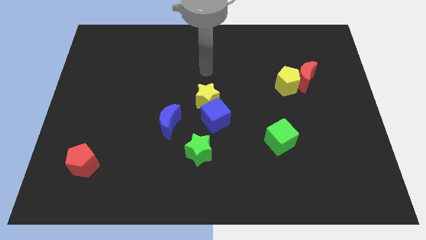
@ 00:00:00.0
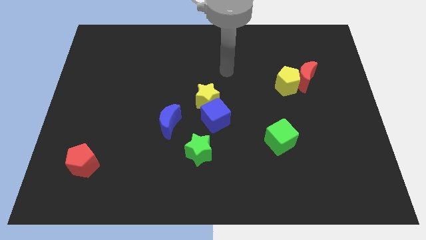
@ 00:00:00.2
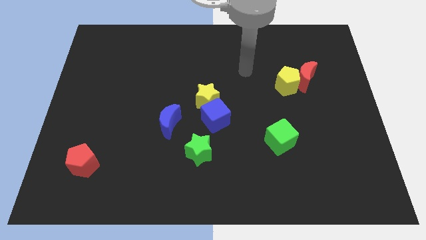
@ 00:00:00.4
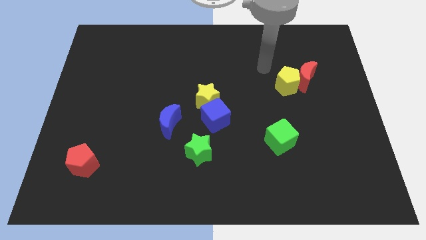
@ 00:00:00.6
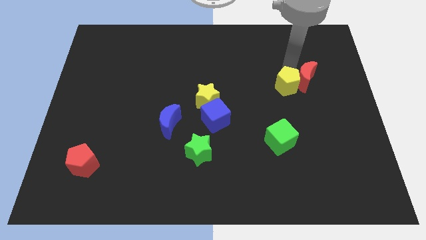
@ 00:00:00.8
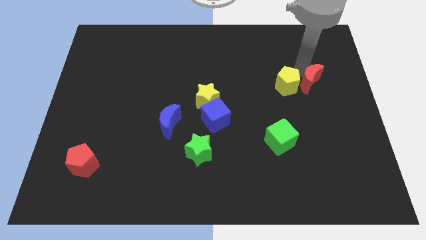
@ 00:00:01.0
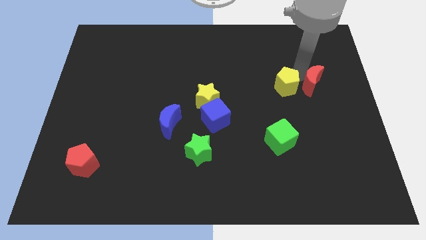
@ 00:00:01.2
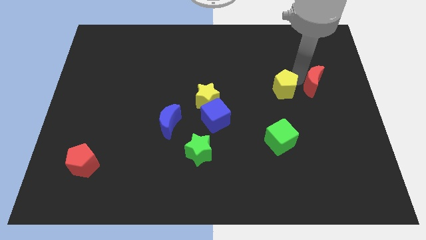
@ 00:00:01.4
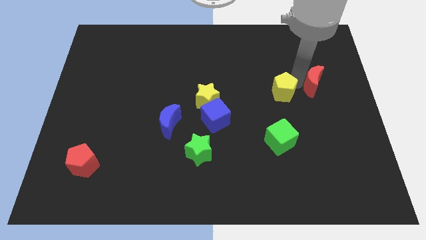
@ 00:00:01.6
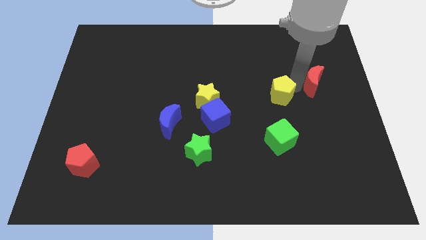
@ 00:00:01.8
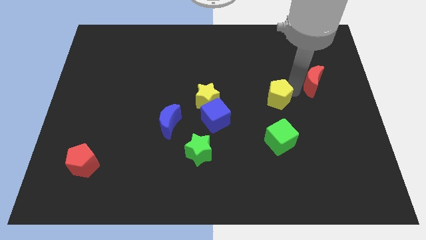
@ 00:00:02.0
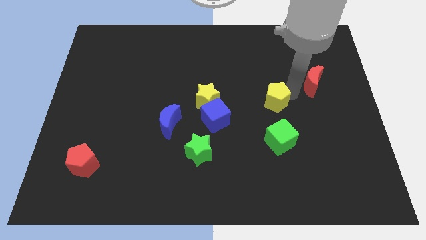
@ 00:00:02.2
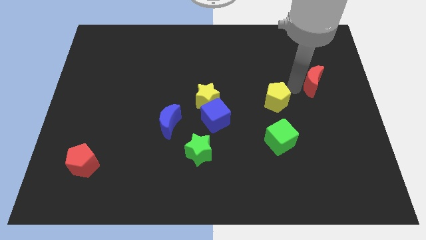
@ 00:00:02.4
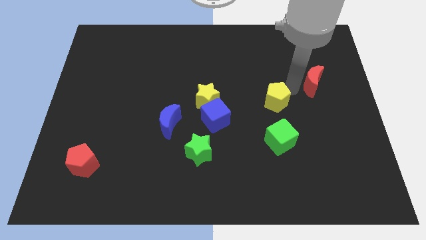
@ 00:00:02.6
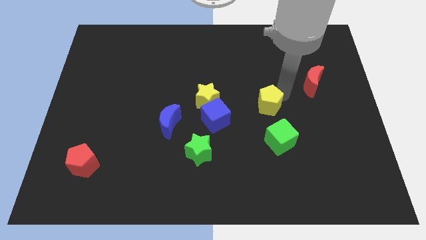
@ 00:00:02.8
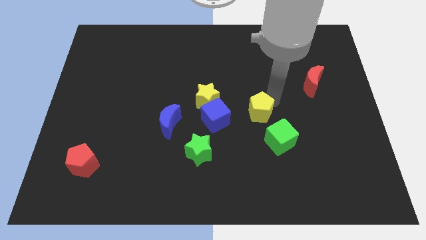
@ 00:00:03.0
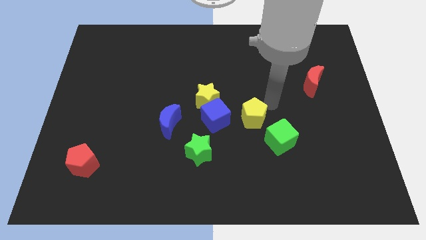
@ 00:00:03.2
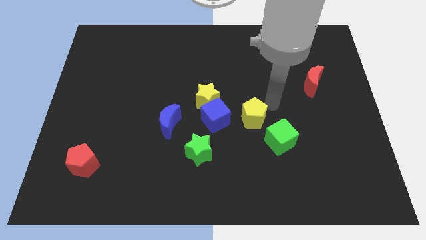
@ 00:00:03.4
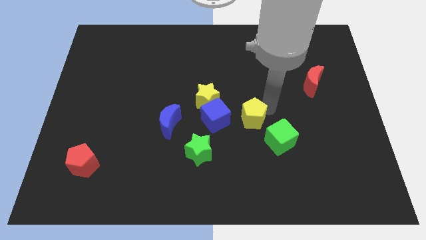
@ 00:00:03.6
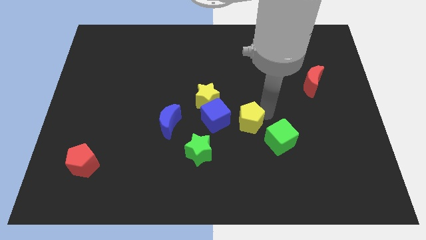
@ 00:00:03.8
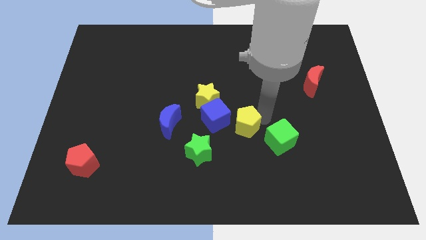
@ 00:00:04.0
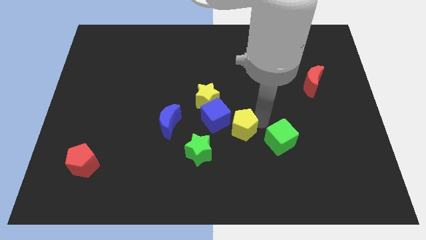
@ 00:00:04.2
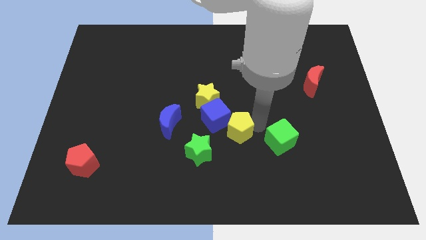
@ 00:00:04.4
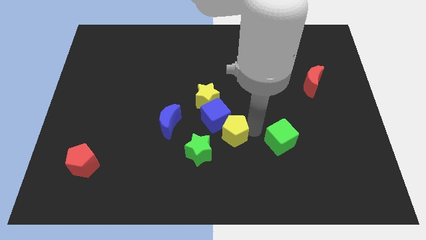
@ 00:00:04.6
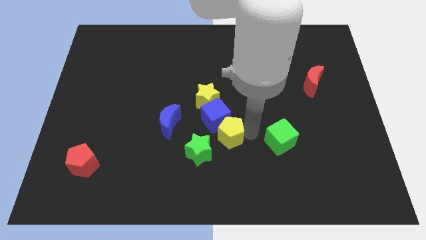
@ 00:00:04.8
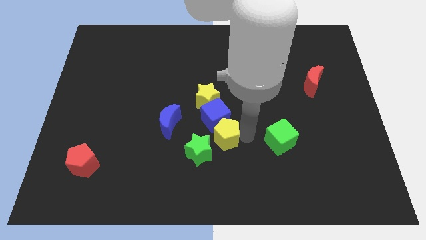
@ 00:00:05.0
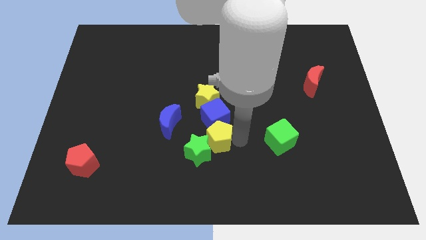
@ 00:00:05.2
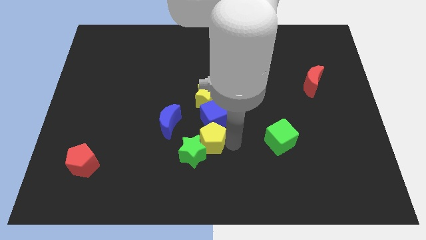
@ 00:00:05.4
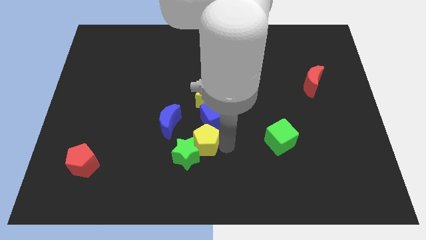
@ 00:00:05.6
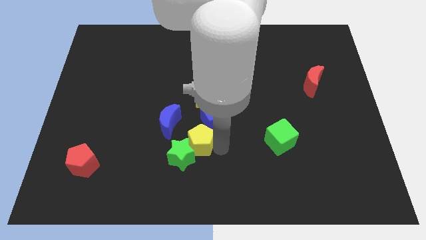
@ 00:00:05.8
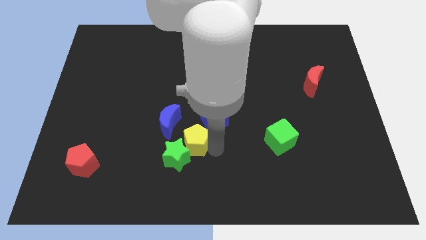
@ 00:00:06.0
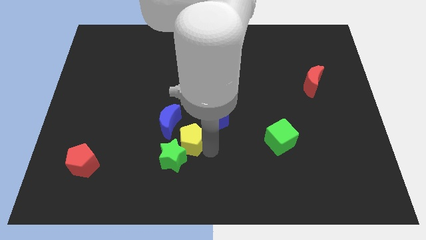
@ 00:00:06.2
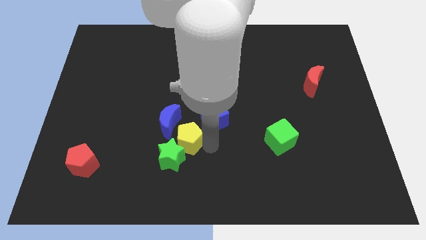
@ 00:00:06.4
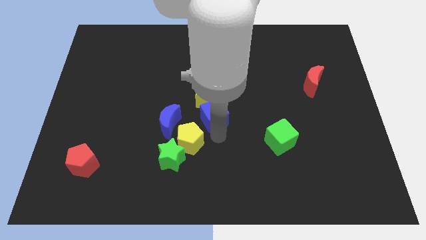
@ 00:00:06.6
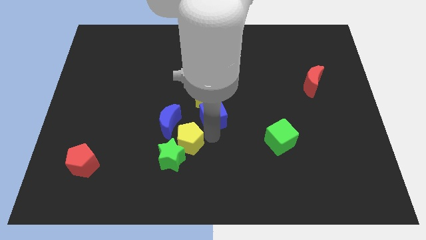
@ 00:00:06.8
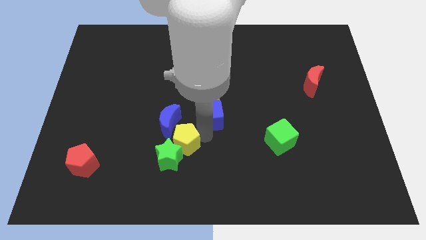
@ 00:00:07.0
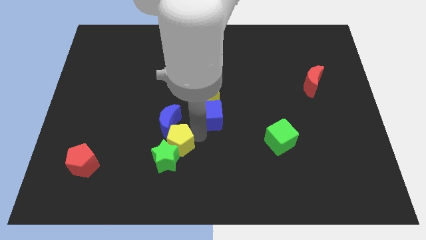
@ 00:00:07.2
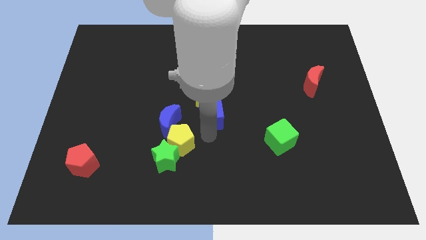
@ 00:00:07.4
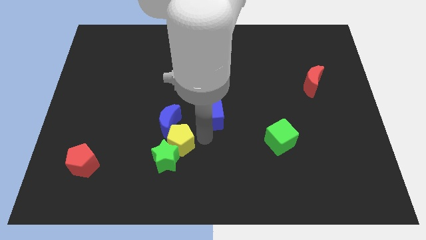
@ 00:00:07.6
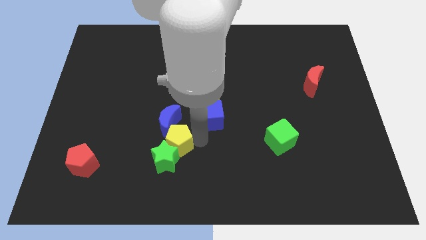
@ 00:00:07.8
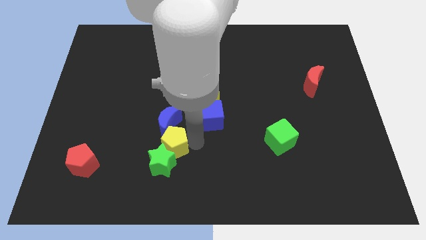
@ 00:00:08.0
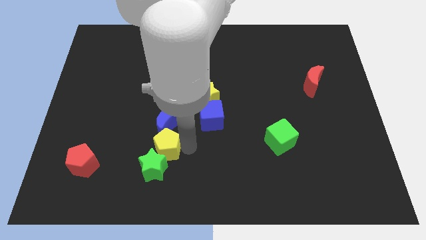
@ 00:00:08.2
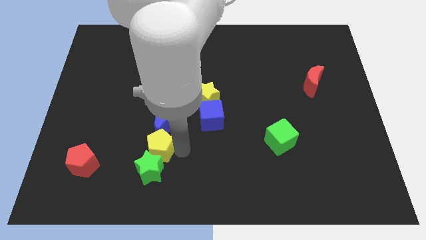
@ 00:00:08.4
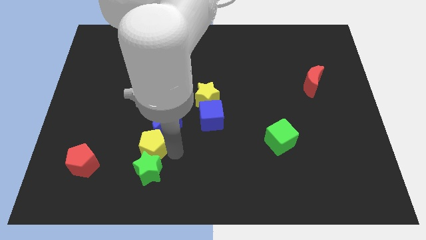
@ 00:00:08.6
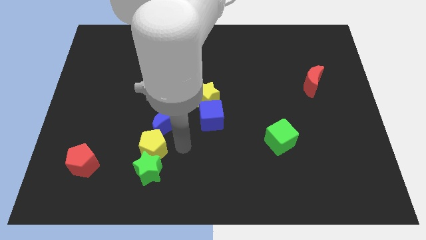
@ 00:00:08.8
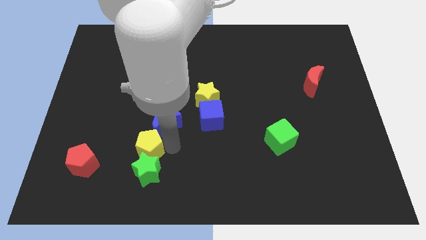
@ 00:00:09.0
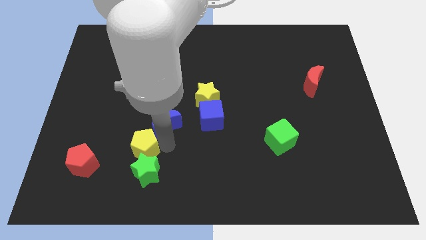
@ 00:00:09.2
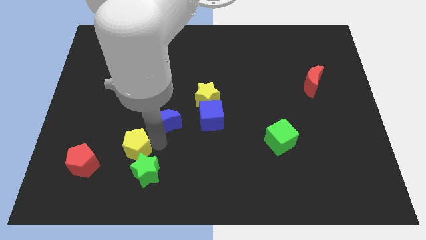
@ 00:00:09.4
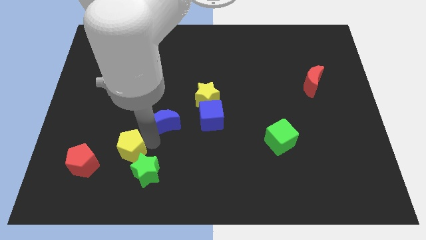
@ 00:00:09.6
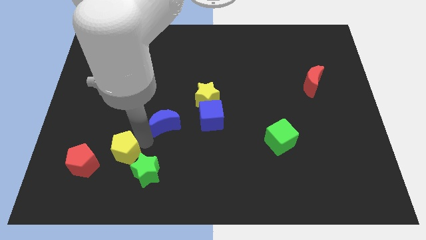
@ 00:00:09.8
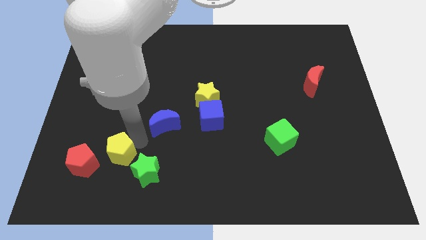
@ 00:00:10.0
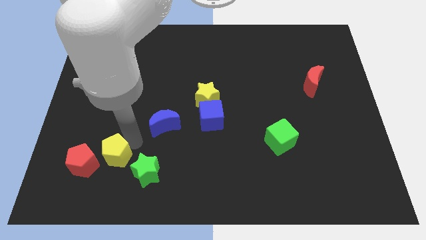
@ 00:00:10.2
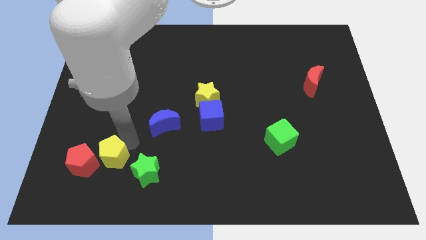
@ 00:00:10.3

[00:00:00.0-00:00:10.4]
put the yellow pentagon towards the red pentagon

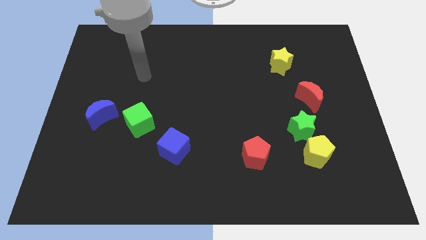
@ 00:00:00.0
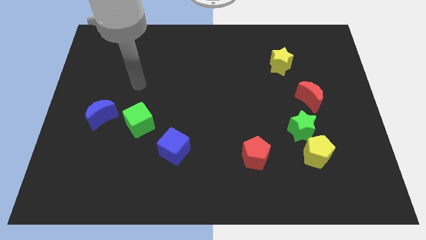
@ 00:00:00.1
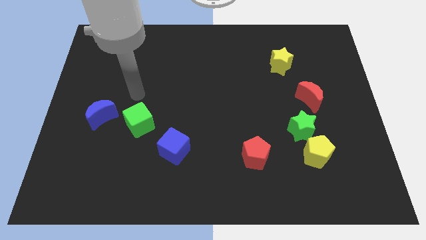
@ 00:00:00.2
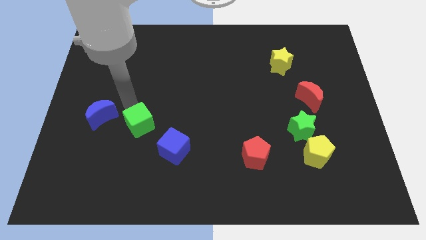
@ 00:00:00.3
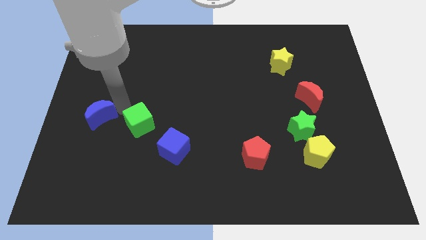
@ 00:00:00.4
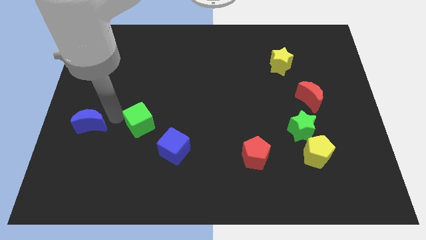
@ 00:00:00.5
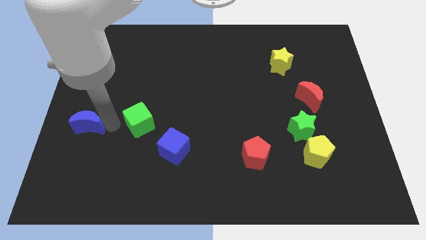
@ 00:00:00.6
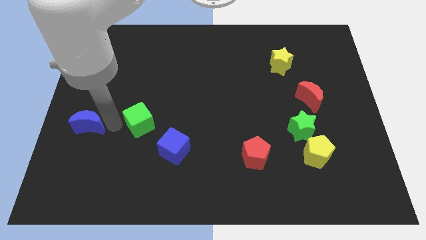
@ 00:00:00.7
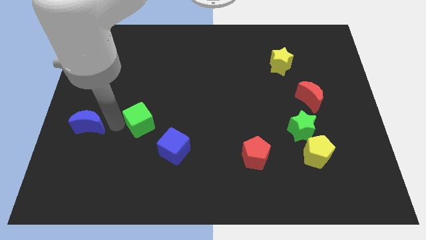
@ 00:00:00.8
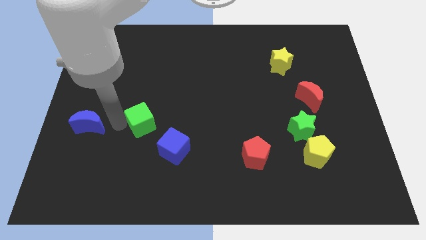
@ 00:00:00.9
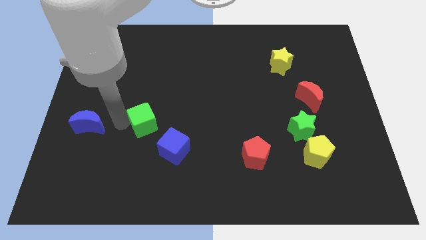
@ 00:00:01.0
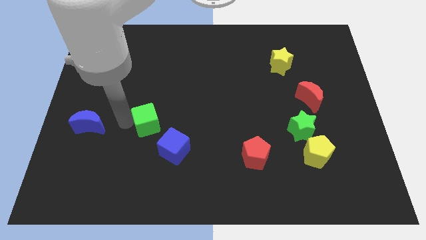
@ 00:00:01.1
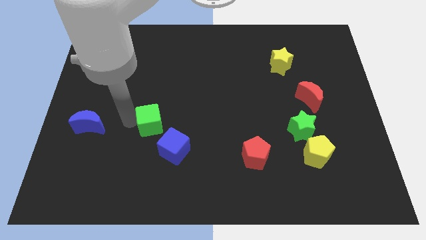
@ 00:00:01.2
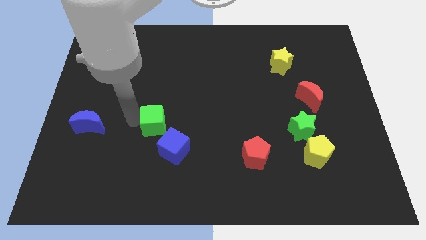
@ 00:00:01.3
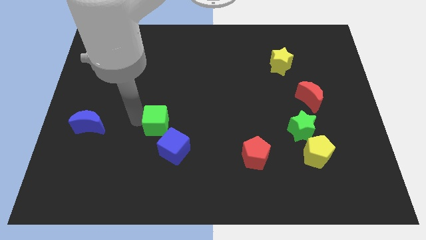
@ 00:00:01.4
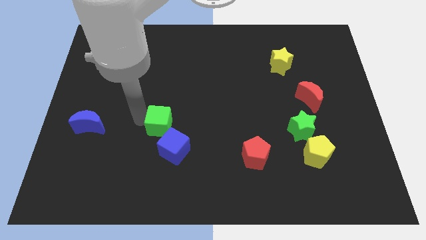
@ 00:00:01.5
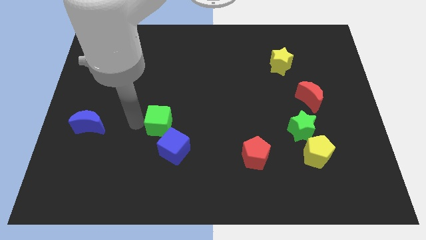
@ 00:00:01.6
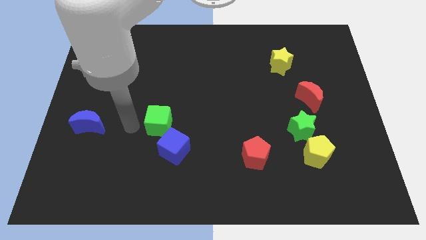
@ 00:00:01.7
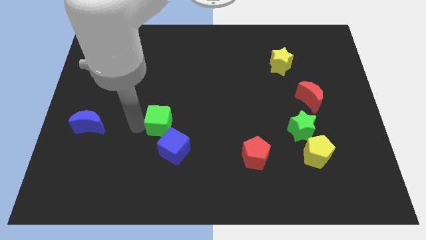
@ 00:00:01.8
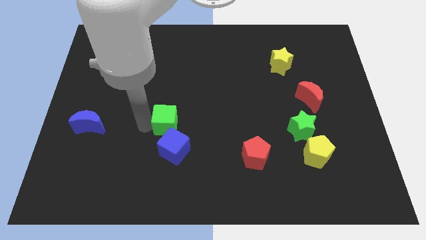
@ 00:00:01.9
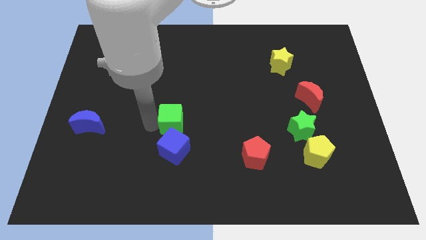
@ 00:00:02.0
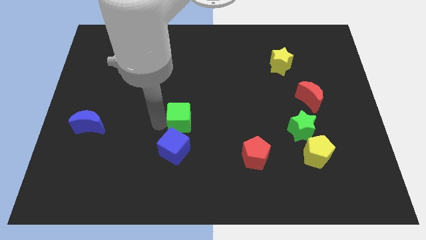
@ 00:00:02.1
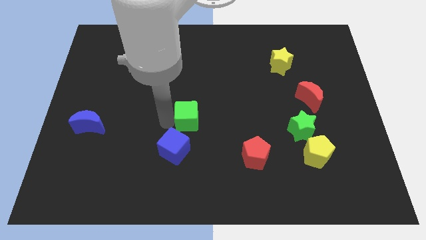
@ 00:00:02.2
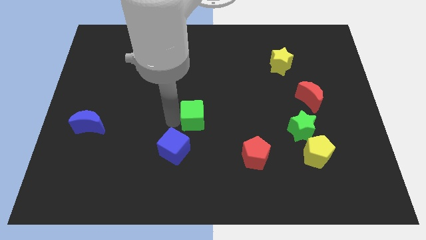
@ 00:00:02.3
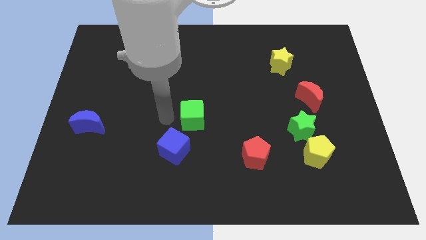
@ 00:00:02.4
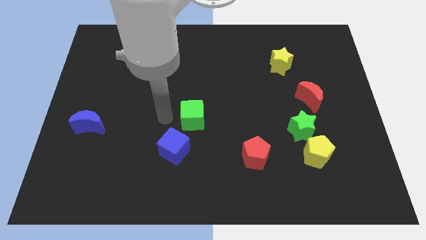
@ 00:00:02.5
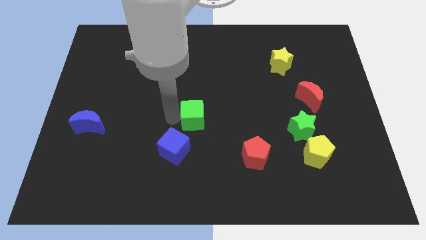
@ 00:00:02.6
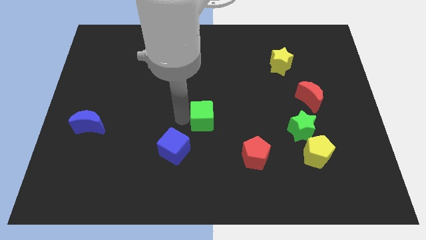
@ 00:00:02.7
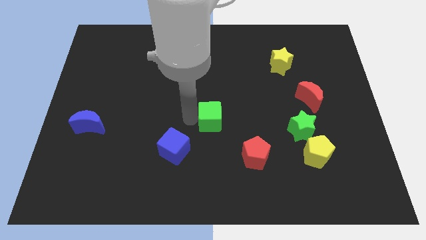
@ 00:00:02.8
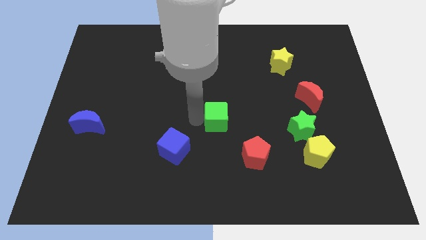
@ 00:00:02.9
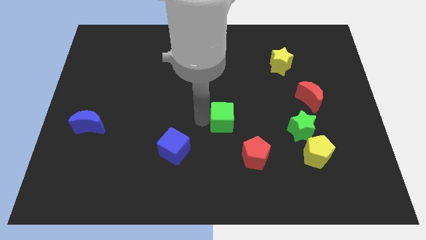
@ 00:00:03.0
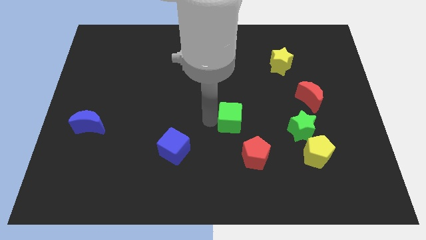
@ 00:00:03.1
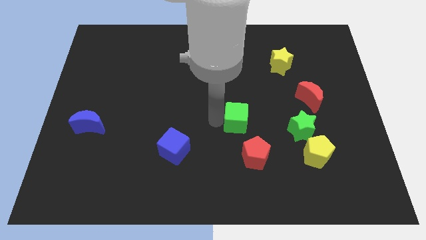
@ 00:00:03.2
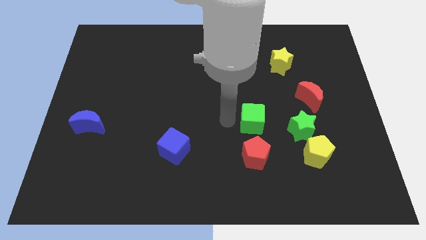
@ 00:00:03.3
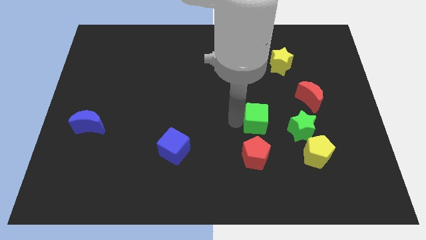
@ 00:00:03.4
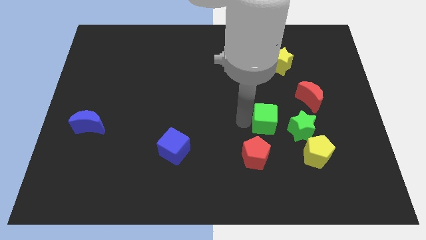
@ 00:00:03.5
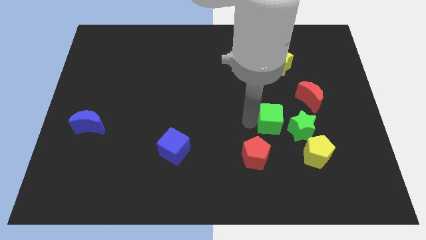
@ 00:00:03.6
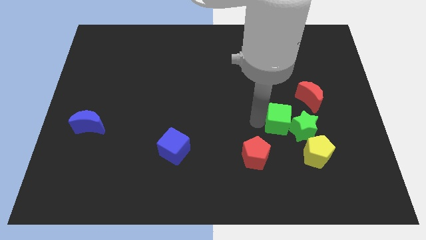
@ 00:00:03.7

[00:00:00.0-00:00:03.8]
push the green cube towards the green star
